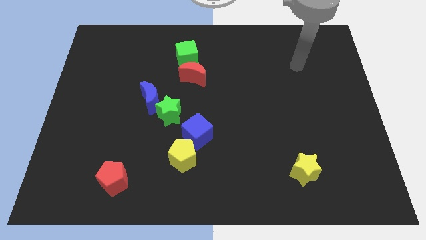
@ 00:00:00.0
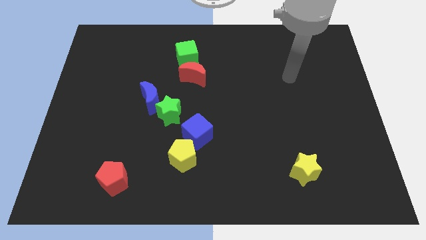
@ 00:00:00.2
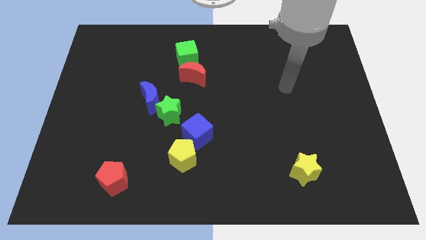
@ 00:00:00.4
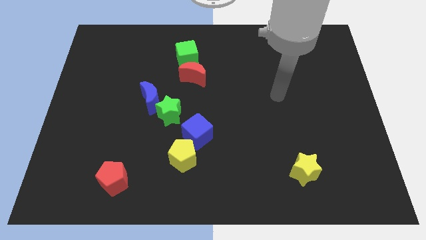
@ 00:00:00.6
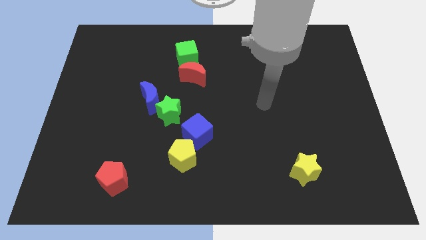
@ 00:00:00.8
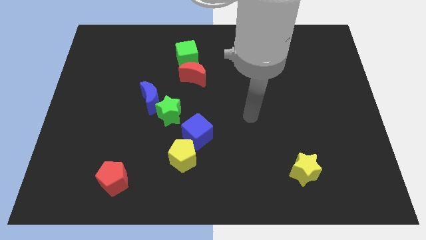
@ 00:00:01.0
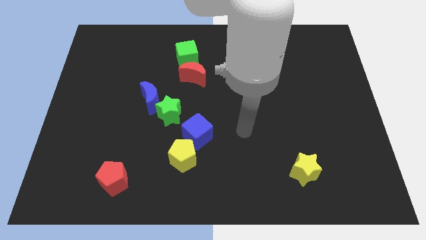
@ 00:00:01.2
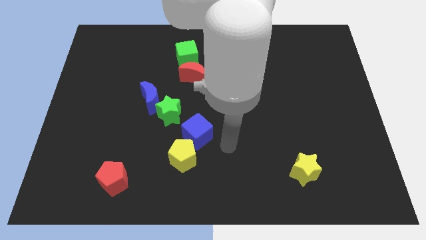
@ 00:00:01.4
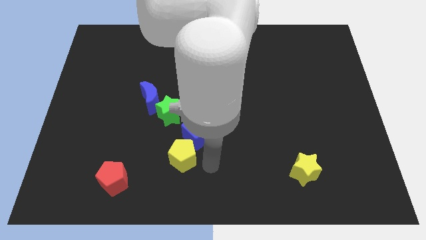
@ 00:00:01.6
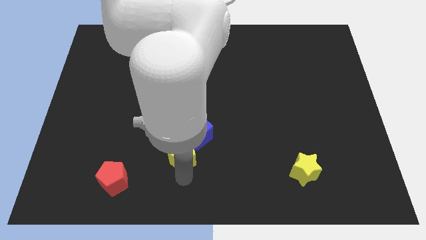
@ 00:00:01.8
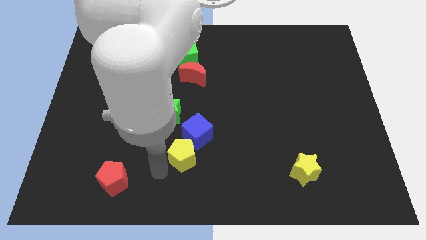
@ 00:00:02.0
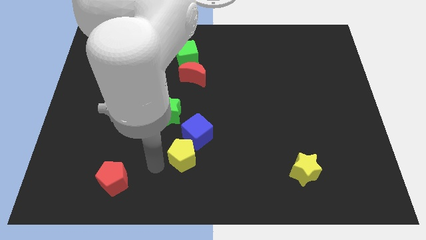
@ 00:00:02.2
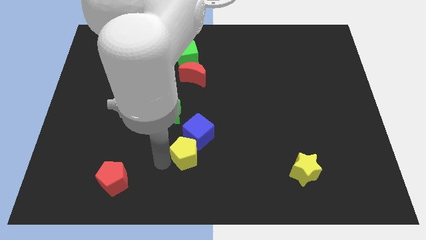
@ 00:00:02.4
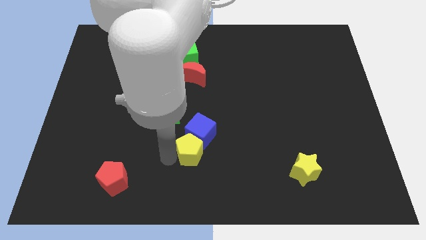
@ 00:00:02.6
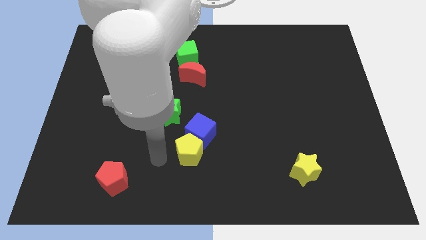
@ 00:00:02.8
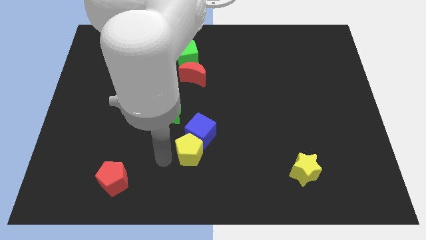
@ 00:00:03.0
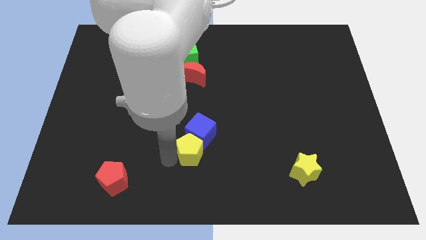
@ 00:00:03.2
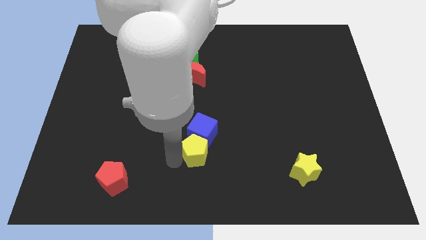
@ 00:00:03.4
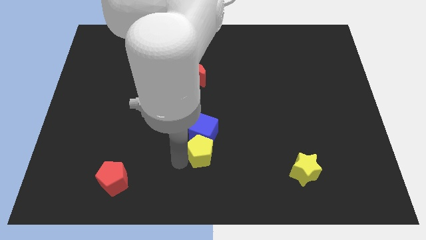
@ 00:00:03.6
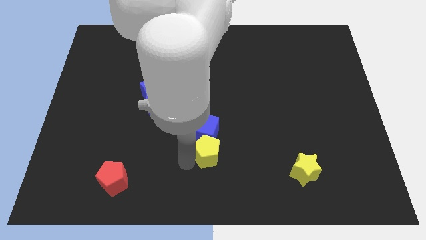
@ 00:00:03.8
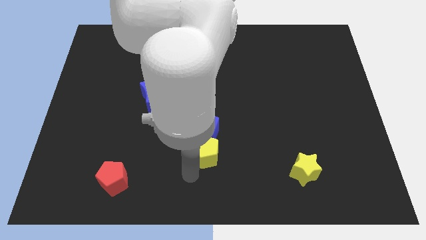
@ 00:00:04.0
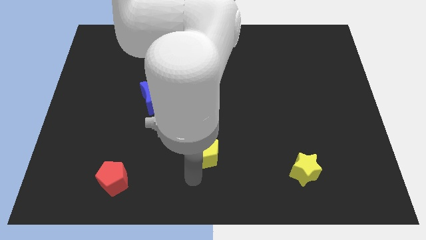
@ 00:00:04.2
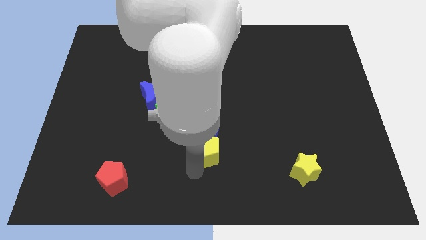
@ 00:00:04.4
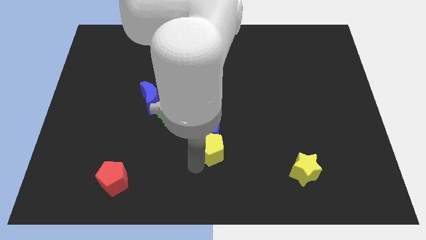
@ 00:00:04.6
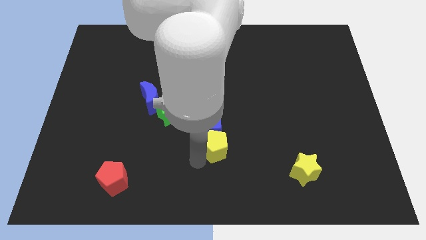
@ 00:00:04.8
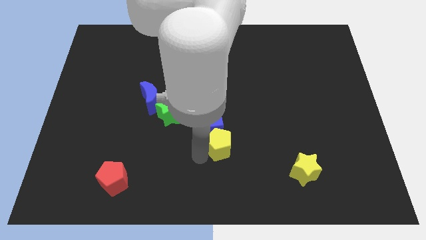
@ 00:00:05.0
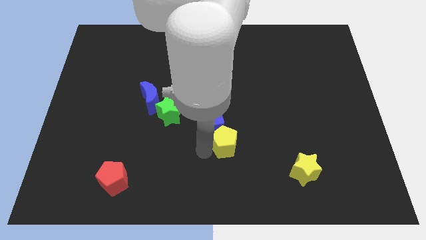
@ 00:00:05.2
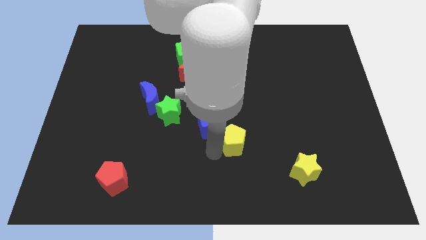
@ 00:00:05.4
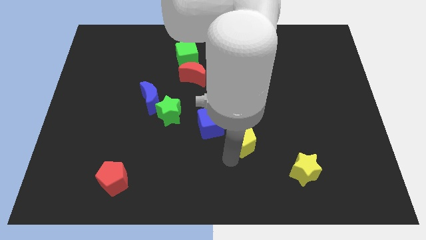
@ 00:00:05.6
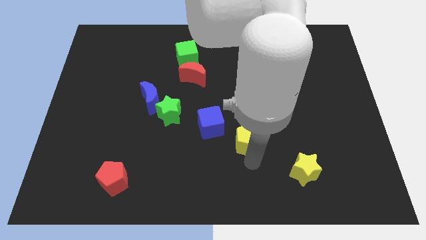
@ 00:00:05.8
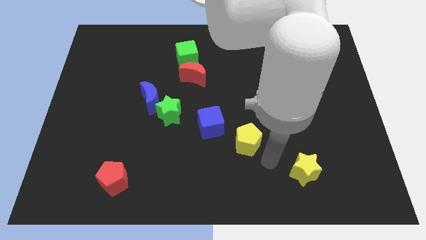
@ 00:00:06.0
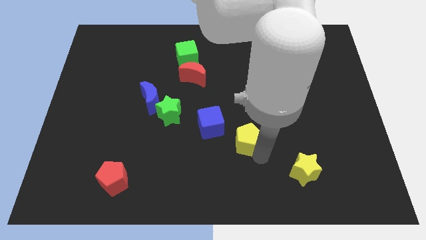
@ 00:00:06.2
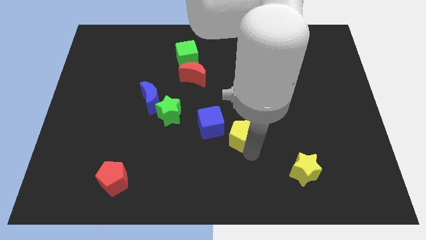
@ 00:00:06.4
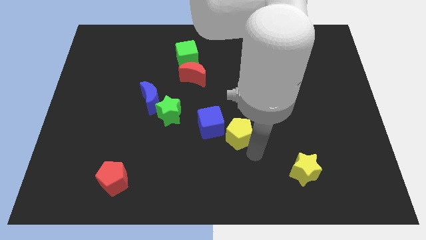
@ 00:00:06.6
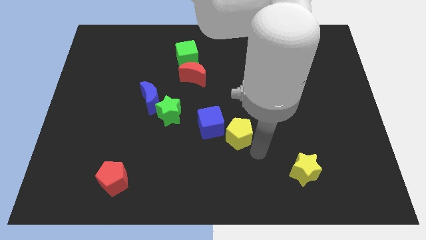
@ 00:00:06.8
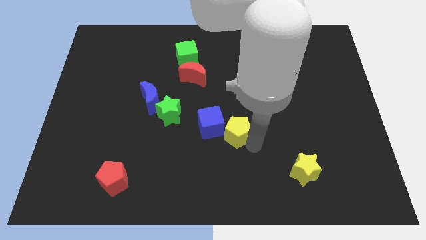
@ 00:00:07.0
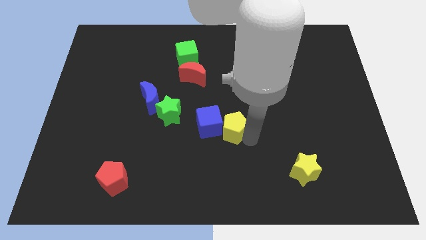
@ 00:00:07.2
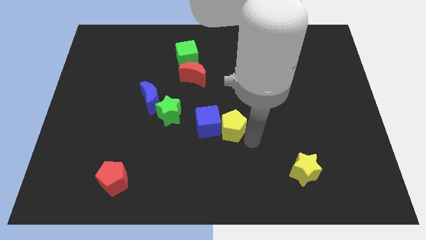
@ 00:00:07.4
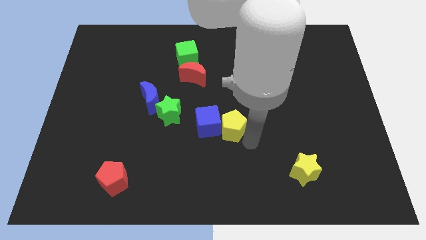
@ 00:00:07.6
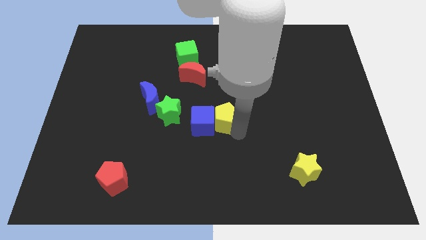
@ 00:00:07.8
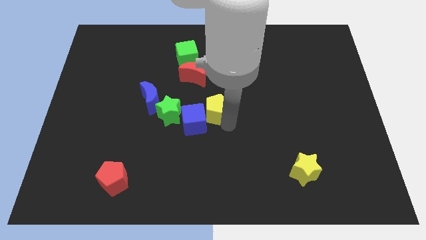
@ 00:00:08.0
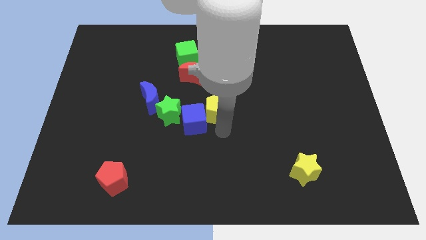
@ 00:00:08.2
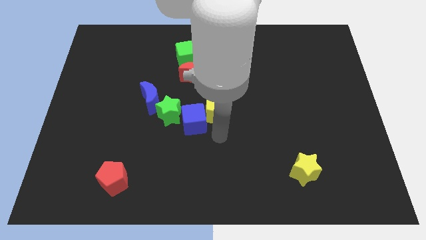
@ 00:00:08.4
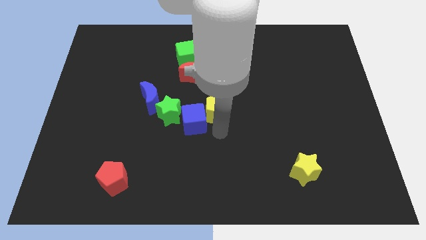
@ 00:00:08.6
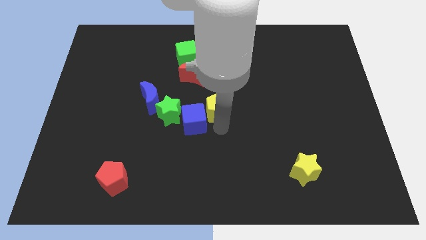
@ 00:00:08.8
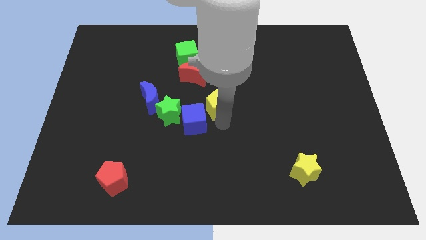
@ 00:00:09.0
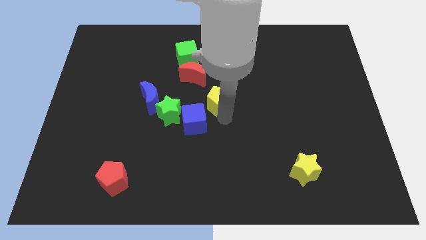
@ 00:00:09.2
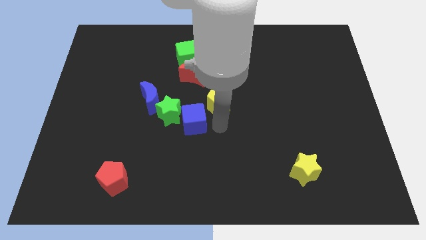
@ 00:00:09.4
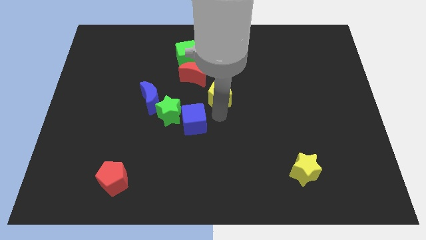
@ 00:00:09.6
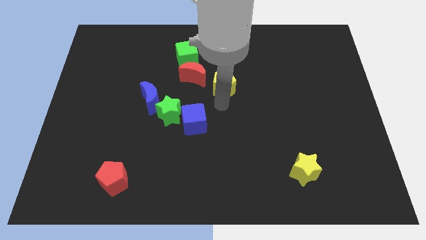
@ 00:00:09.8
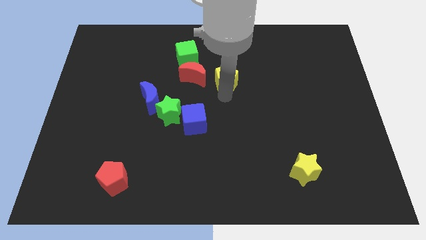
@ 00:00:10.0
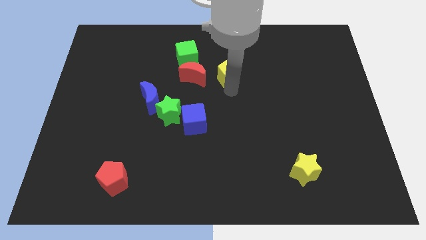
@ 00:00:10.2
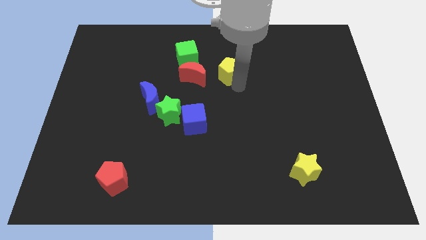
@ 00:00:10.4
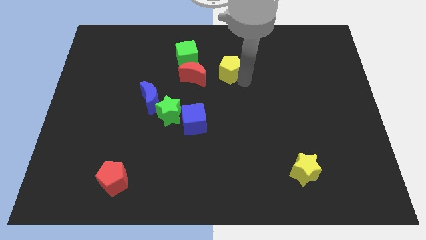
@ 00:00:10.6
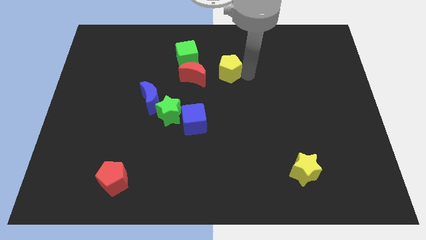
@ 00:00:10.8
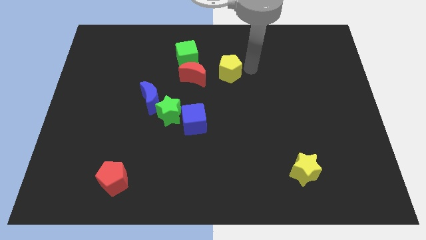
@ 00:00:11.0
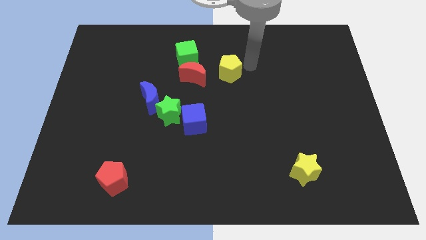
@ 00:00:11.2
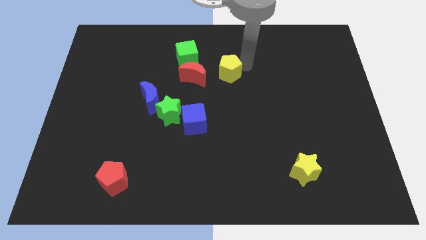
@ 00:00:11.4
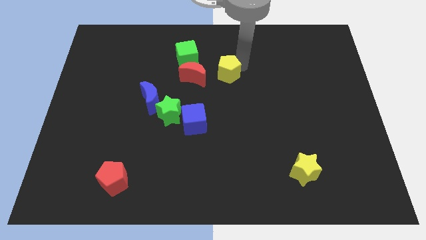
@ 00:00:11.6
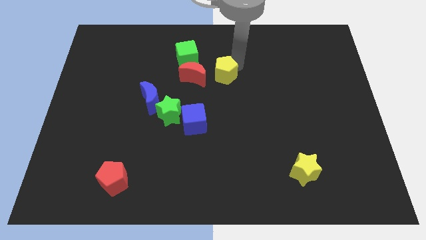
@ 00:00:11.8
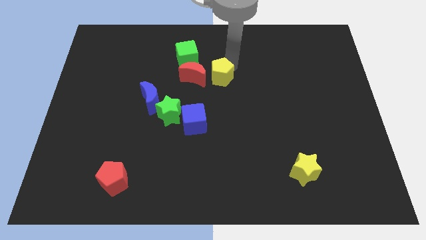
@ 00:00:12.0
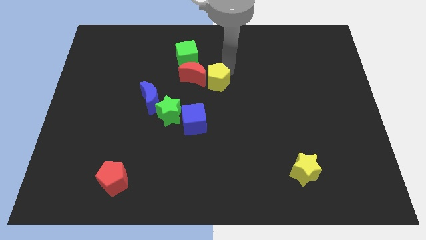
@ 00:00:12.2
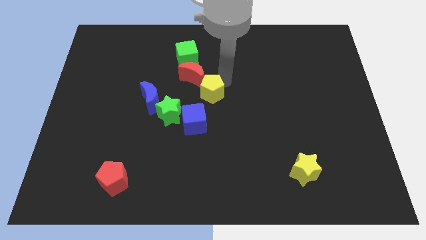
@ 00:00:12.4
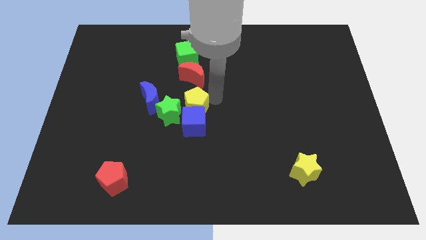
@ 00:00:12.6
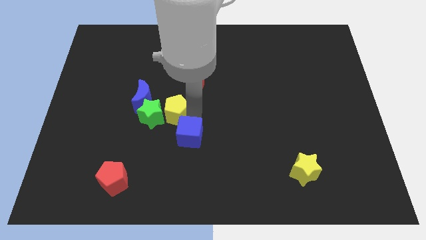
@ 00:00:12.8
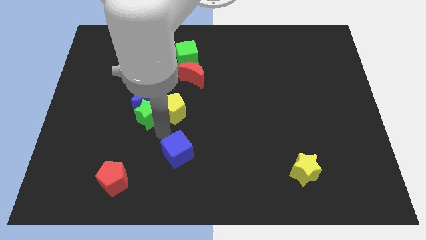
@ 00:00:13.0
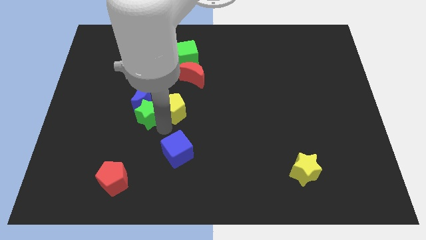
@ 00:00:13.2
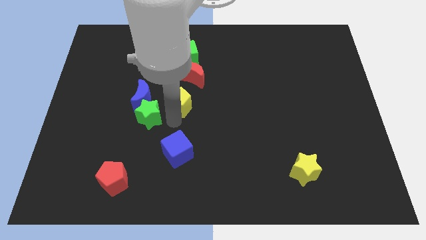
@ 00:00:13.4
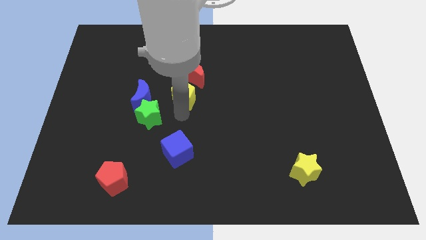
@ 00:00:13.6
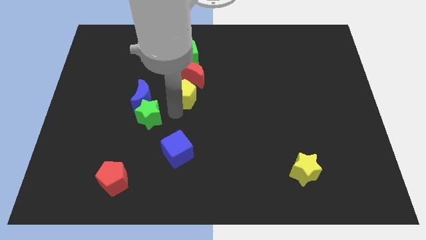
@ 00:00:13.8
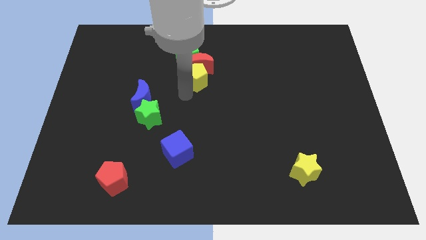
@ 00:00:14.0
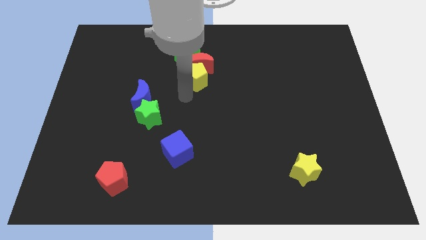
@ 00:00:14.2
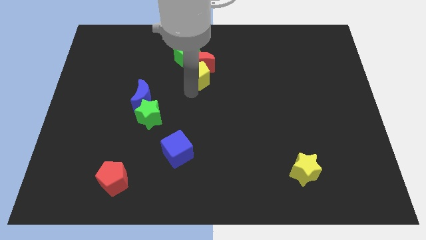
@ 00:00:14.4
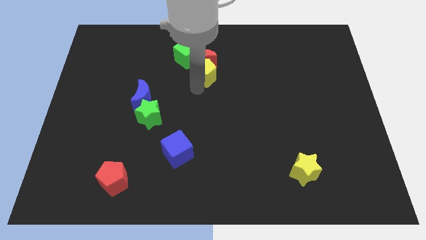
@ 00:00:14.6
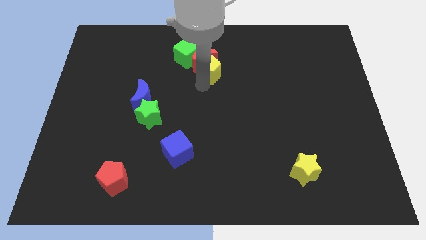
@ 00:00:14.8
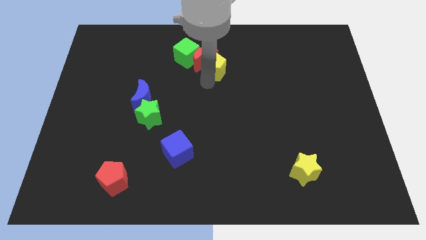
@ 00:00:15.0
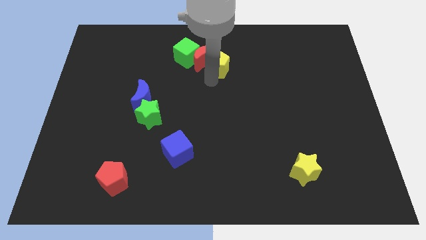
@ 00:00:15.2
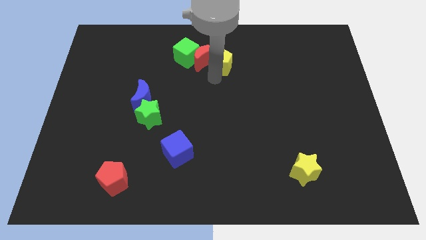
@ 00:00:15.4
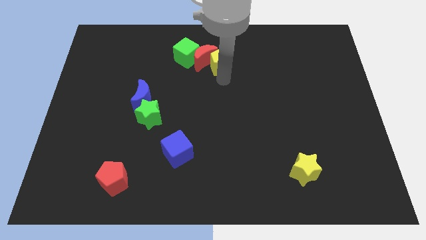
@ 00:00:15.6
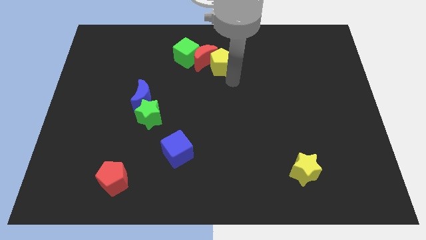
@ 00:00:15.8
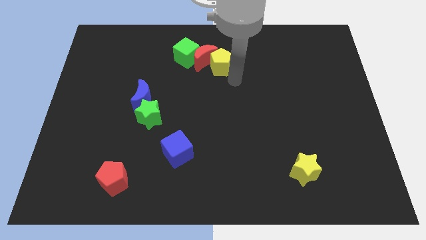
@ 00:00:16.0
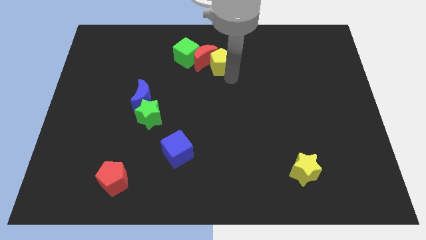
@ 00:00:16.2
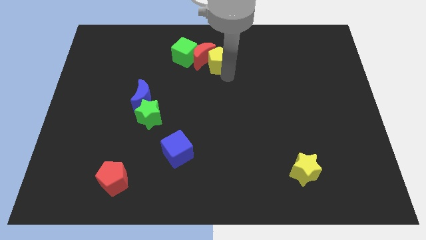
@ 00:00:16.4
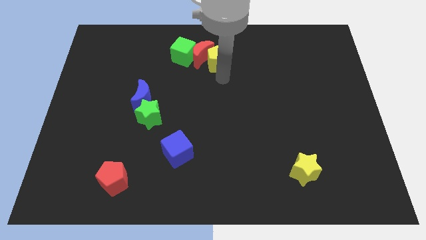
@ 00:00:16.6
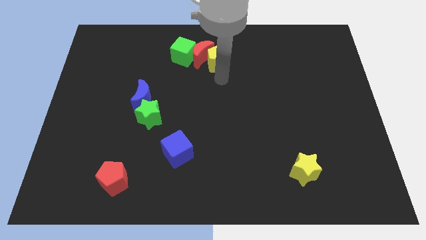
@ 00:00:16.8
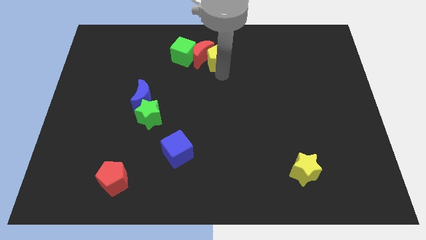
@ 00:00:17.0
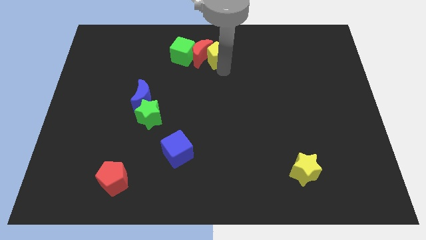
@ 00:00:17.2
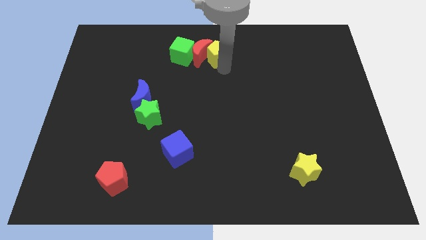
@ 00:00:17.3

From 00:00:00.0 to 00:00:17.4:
put the yellow pentagon to the towards your base
